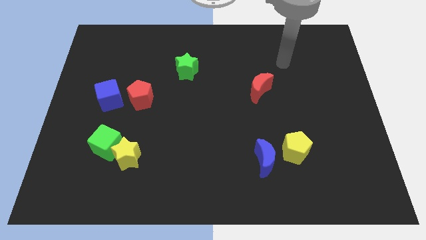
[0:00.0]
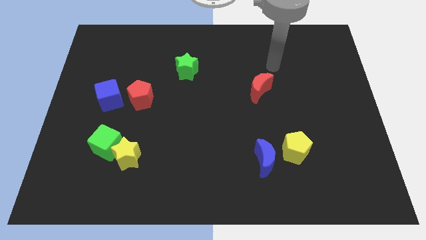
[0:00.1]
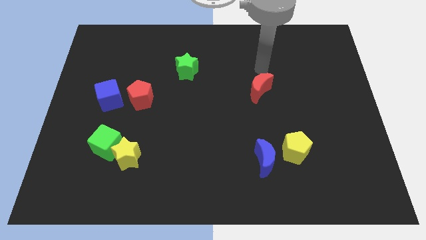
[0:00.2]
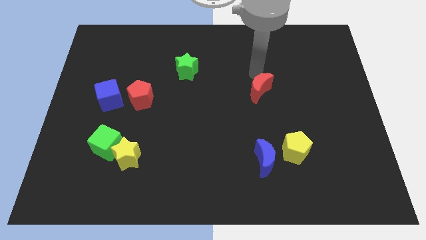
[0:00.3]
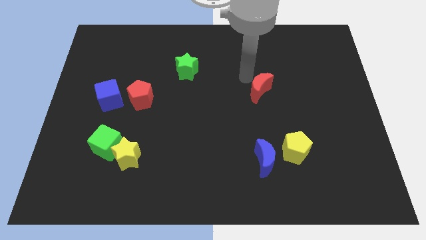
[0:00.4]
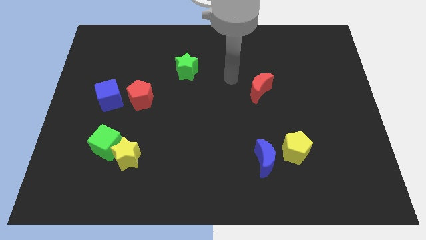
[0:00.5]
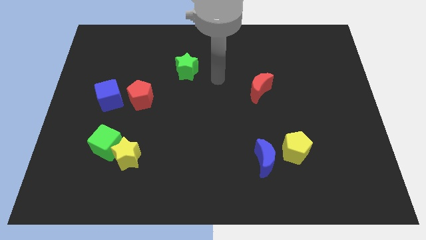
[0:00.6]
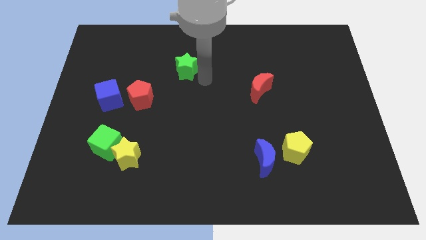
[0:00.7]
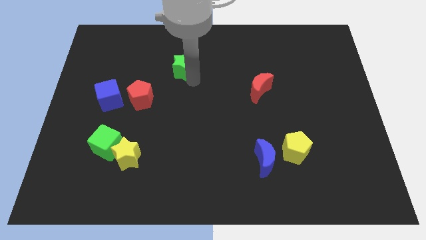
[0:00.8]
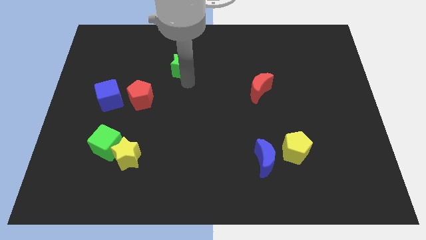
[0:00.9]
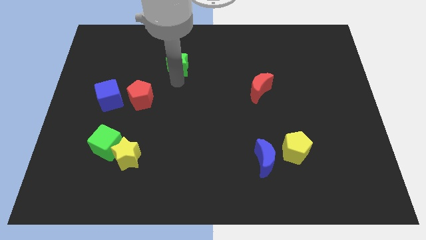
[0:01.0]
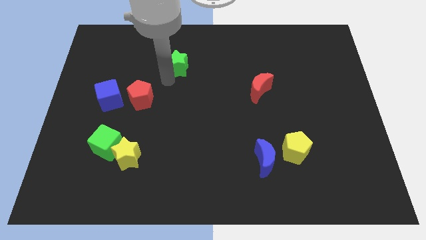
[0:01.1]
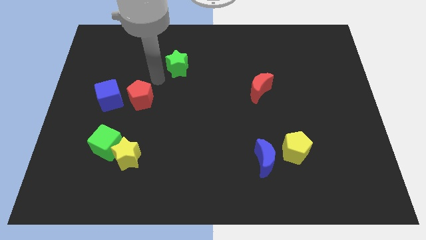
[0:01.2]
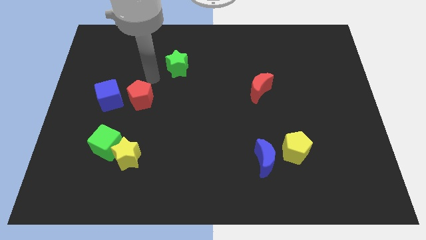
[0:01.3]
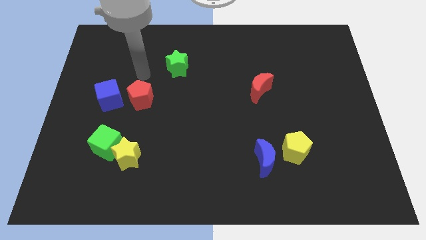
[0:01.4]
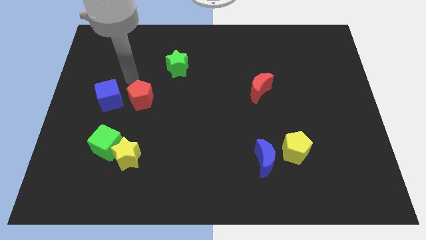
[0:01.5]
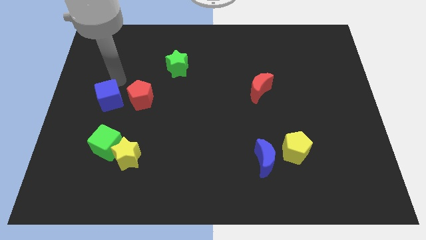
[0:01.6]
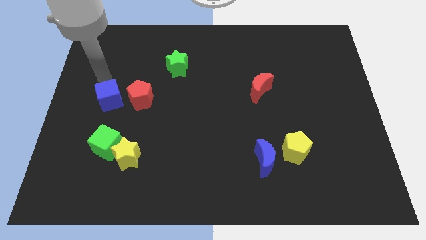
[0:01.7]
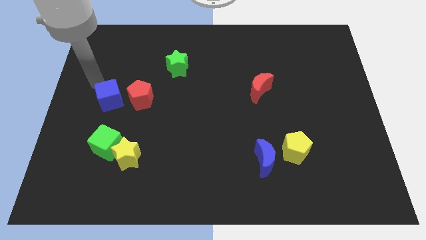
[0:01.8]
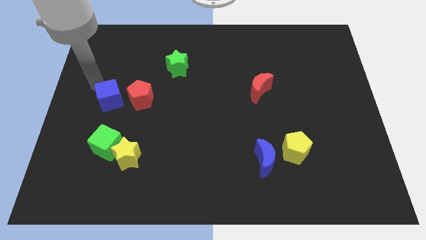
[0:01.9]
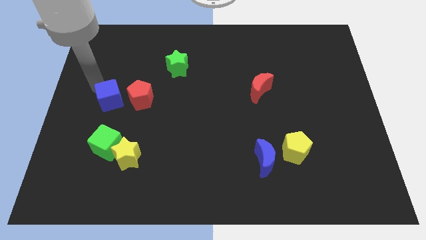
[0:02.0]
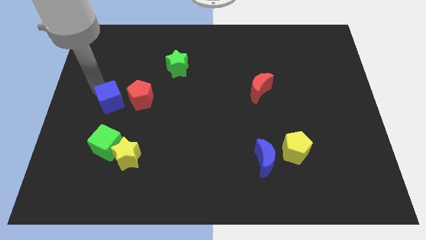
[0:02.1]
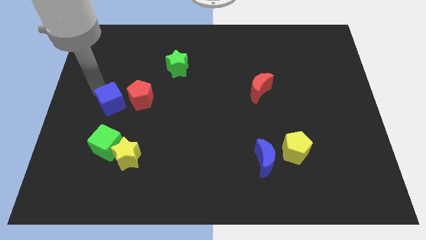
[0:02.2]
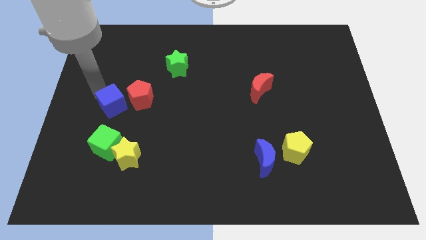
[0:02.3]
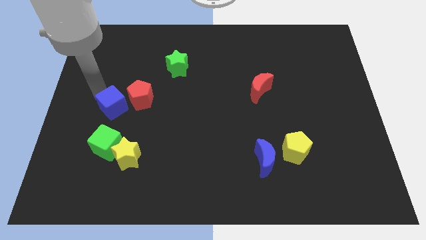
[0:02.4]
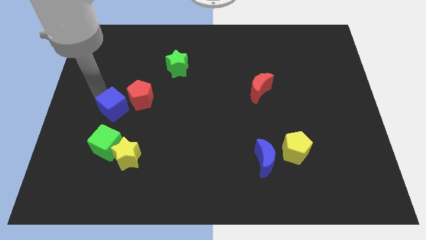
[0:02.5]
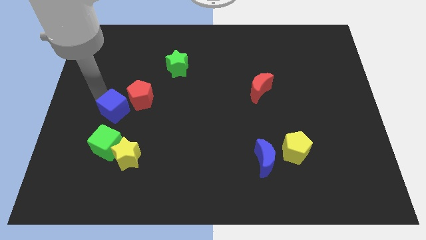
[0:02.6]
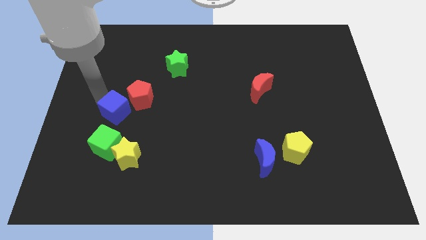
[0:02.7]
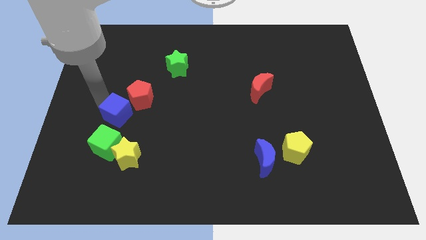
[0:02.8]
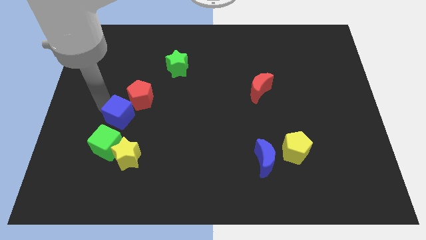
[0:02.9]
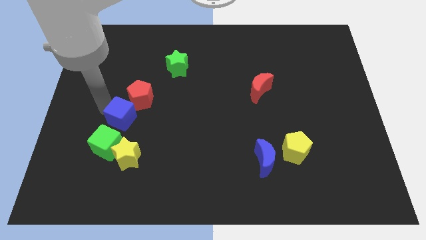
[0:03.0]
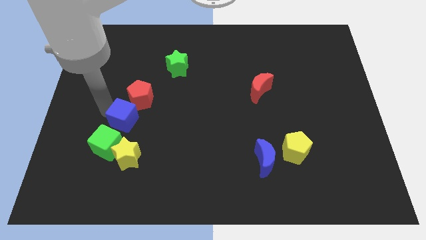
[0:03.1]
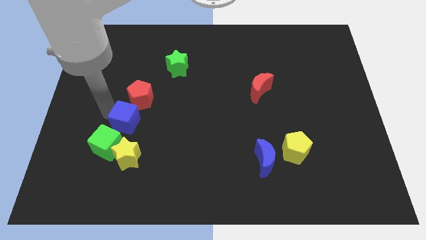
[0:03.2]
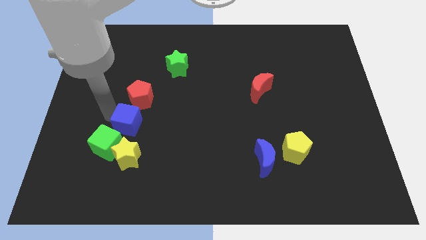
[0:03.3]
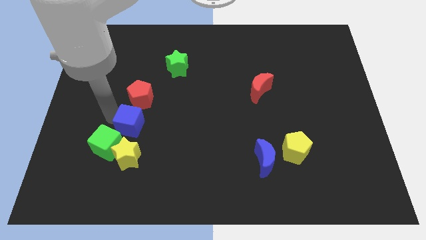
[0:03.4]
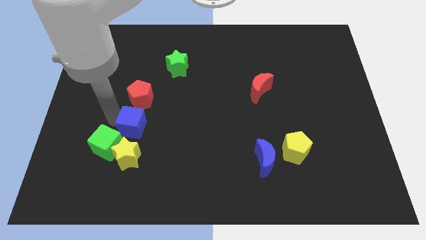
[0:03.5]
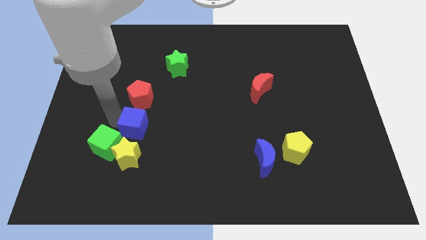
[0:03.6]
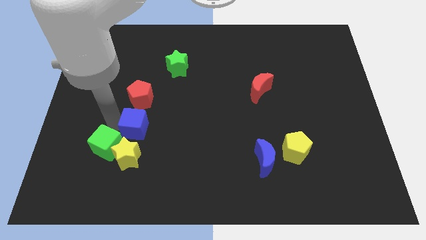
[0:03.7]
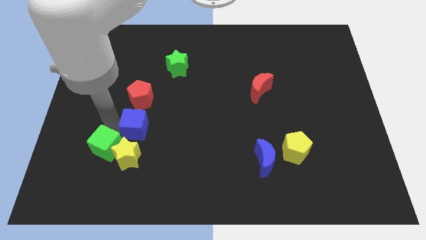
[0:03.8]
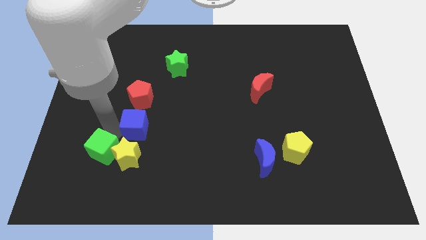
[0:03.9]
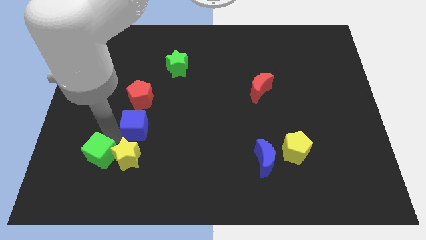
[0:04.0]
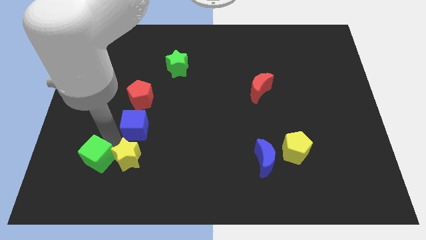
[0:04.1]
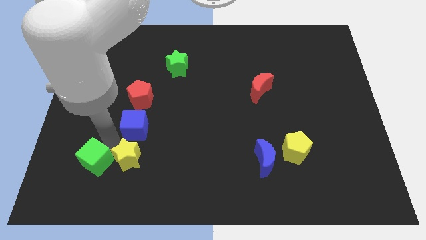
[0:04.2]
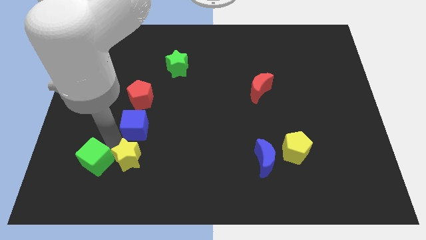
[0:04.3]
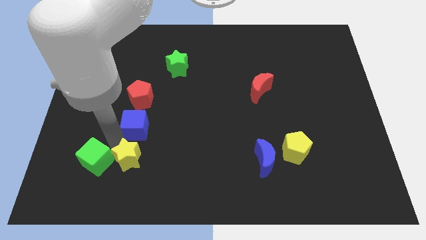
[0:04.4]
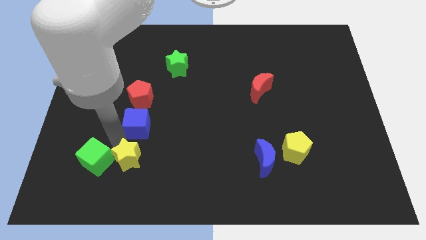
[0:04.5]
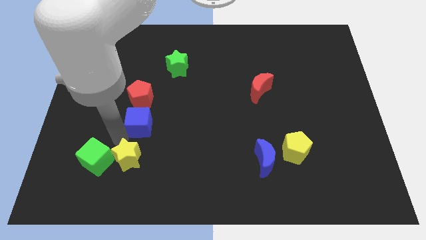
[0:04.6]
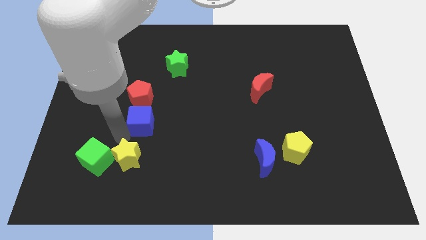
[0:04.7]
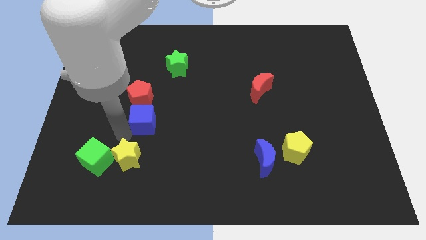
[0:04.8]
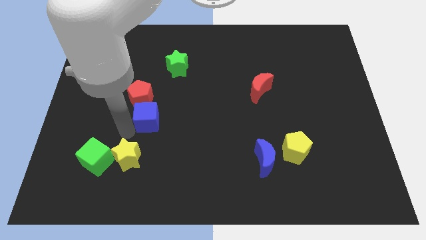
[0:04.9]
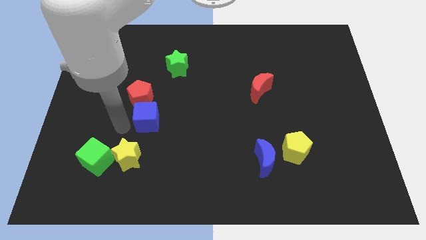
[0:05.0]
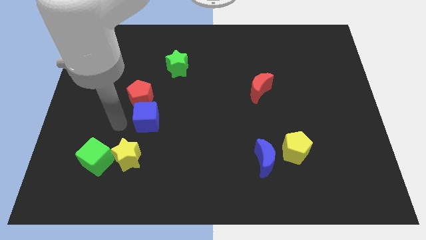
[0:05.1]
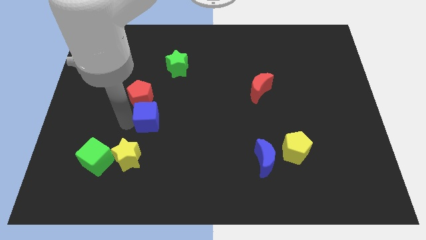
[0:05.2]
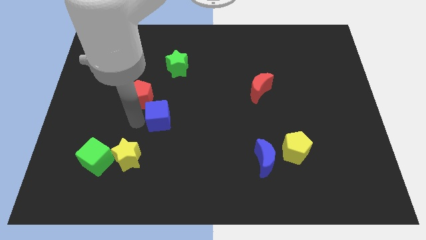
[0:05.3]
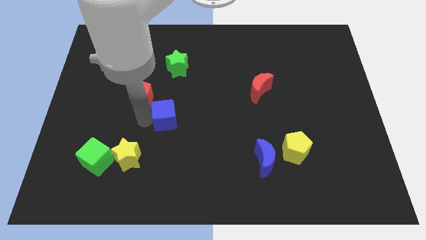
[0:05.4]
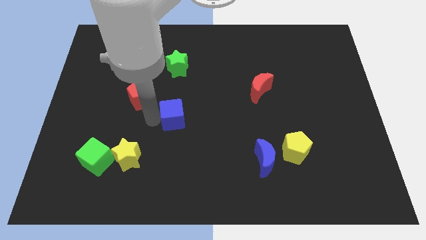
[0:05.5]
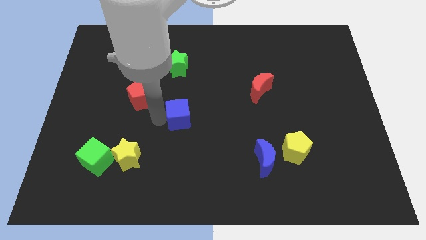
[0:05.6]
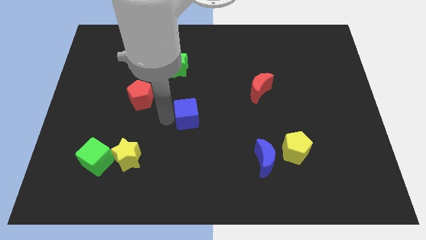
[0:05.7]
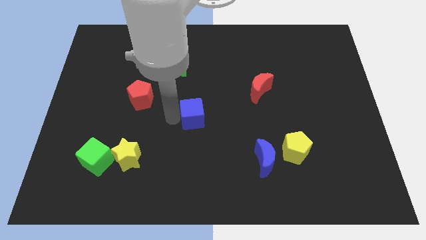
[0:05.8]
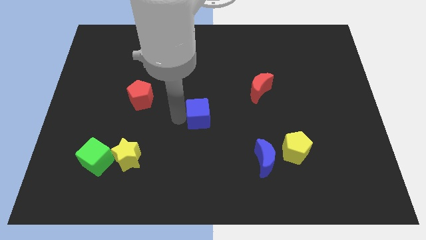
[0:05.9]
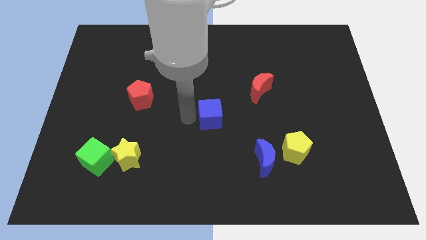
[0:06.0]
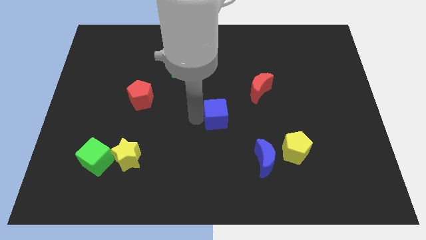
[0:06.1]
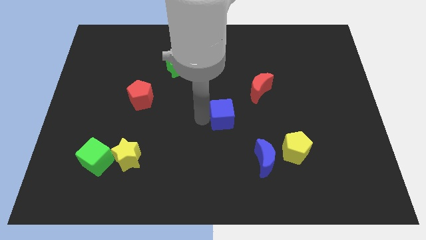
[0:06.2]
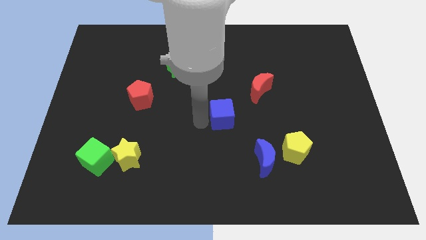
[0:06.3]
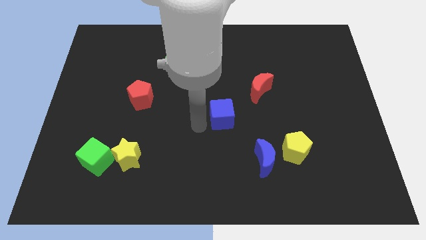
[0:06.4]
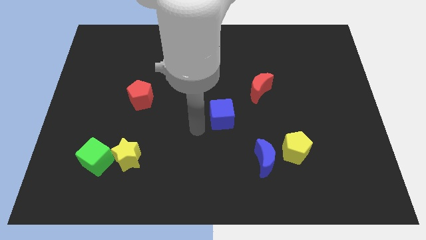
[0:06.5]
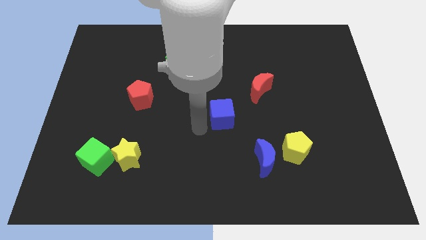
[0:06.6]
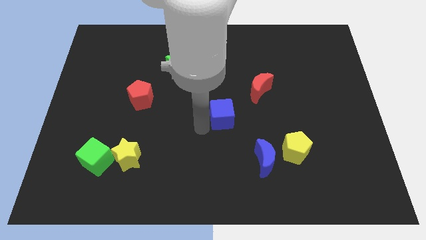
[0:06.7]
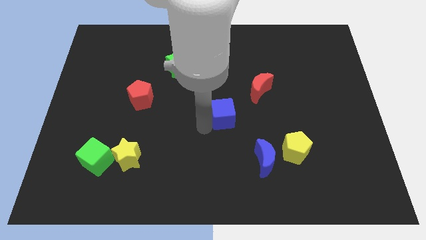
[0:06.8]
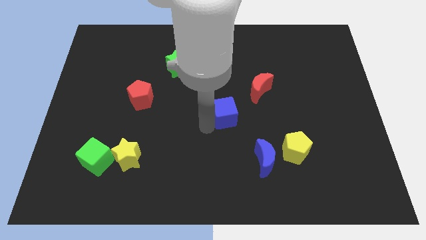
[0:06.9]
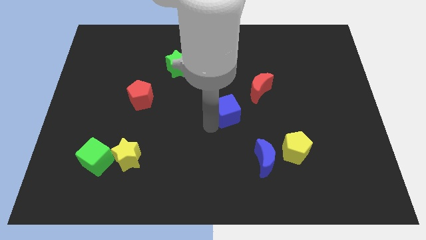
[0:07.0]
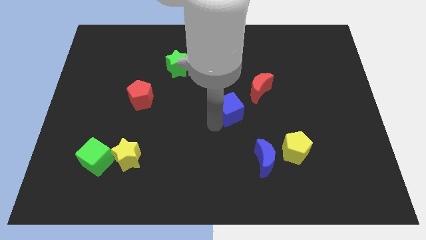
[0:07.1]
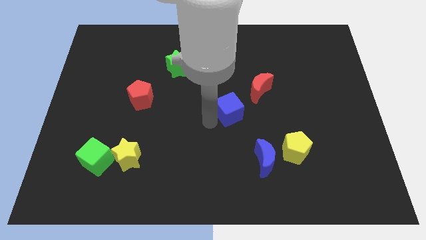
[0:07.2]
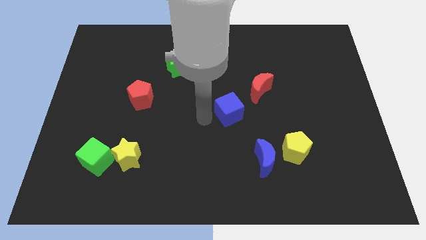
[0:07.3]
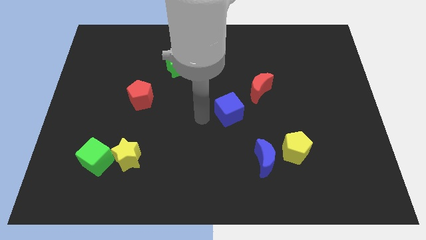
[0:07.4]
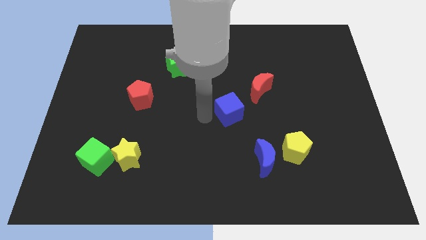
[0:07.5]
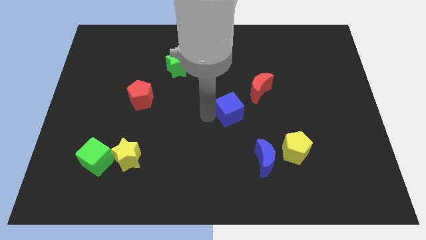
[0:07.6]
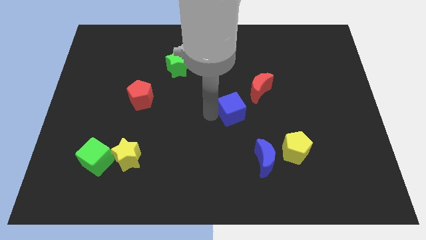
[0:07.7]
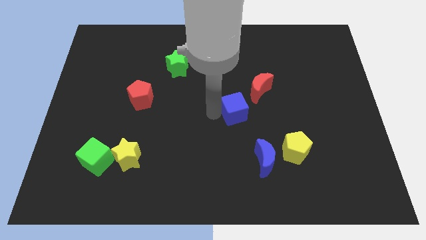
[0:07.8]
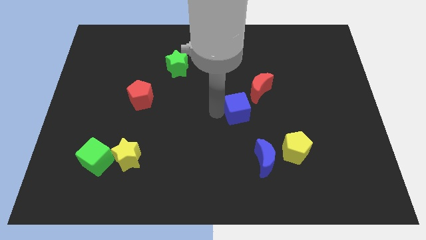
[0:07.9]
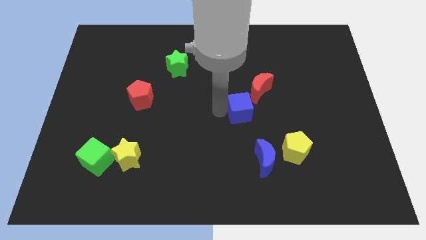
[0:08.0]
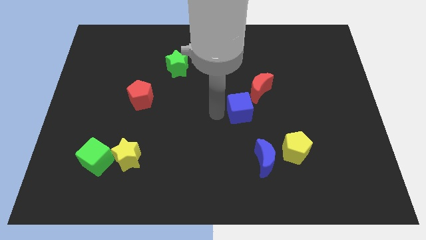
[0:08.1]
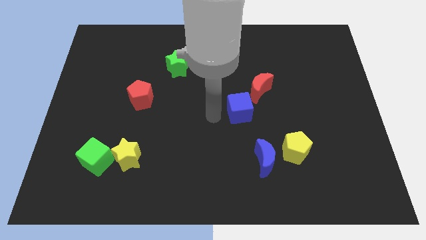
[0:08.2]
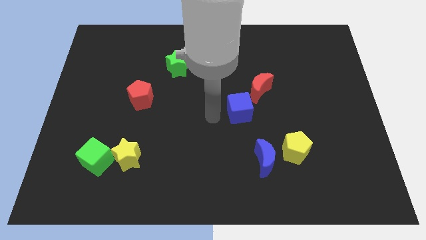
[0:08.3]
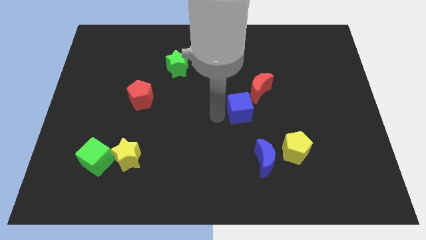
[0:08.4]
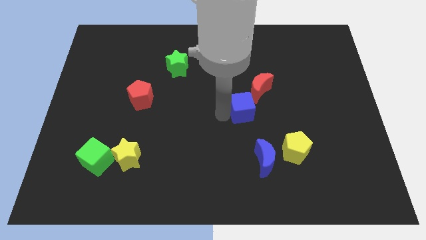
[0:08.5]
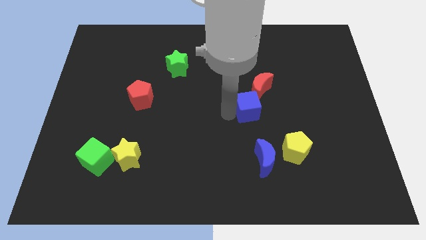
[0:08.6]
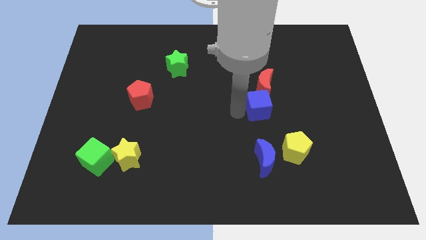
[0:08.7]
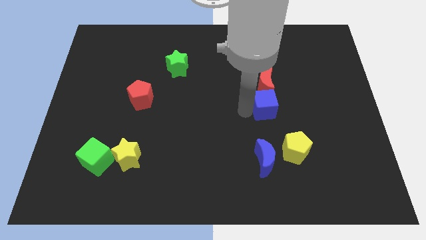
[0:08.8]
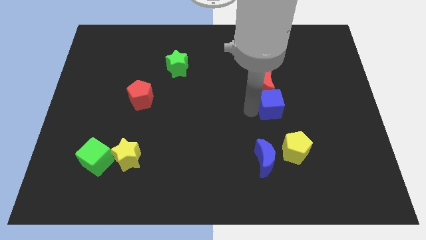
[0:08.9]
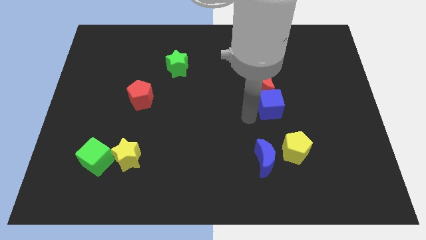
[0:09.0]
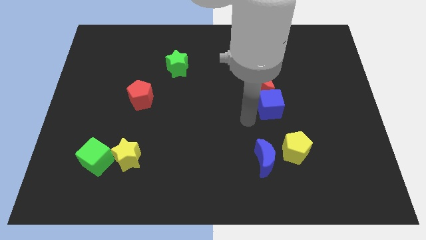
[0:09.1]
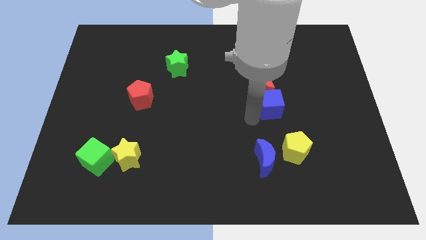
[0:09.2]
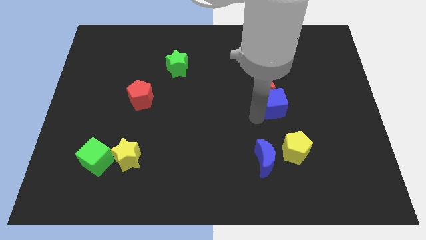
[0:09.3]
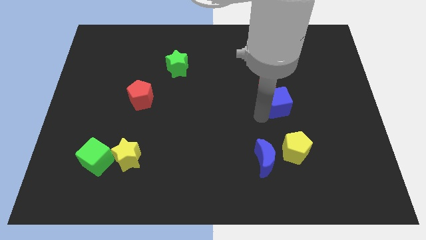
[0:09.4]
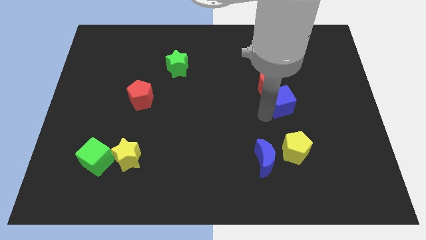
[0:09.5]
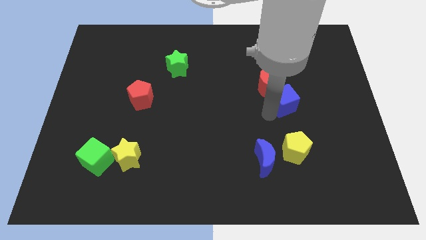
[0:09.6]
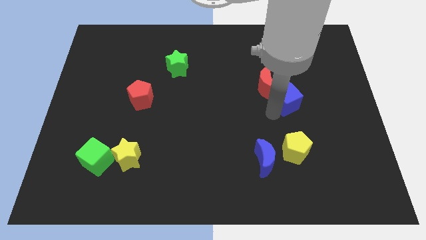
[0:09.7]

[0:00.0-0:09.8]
move the blue cube just right of the red moon
